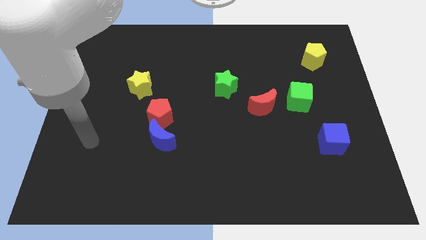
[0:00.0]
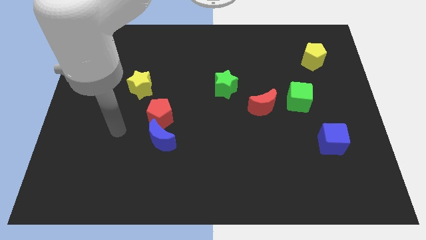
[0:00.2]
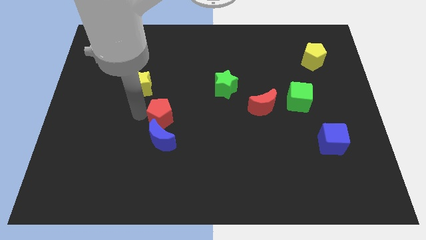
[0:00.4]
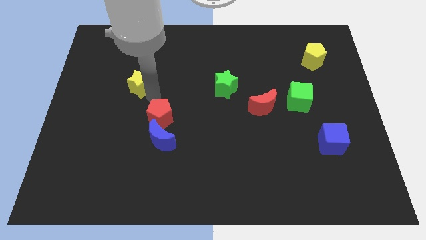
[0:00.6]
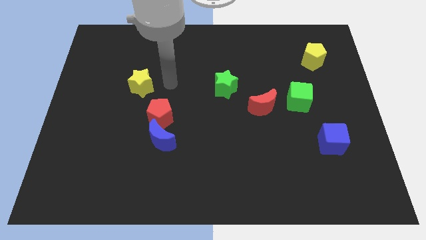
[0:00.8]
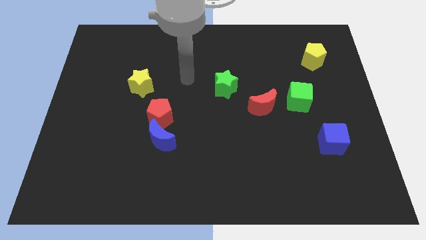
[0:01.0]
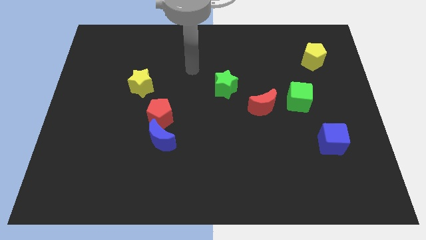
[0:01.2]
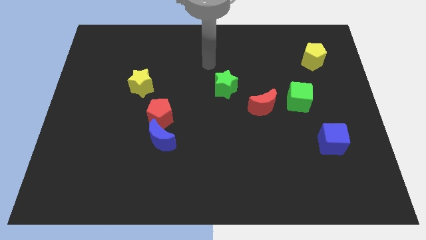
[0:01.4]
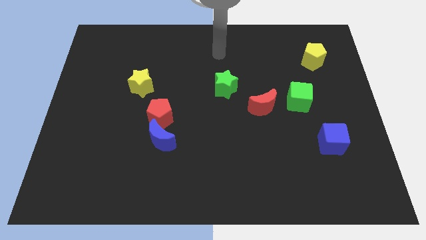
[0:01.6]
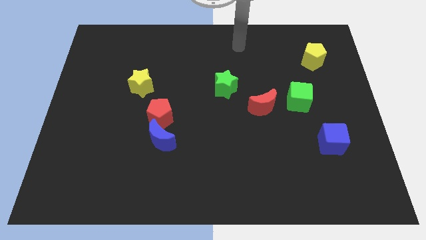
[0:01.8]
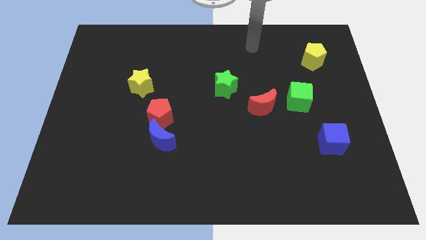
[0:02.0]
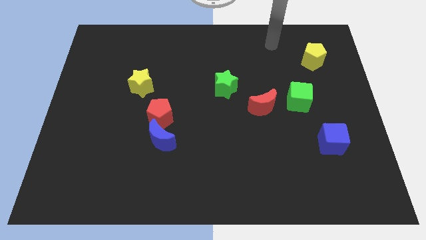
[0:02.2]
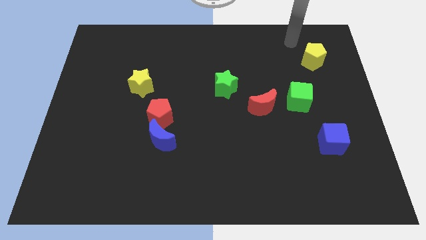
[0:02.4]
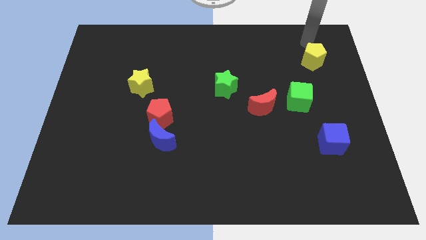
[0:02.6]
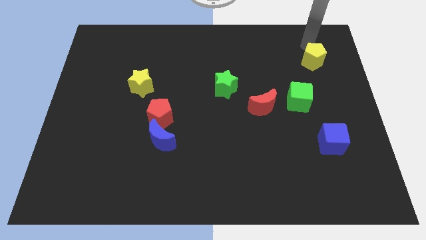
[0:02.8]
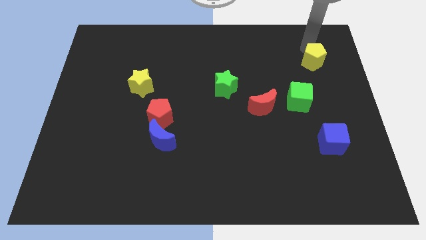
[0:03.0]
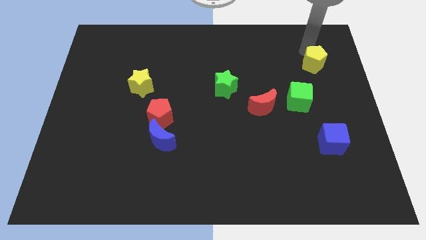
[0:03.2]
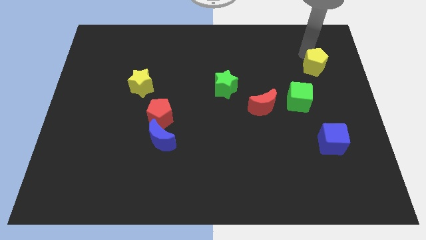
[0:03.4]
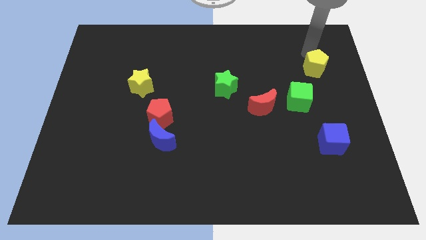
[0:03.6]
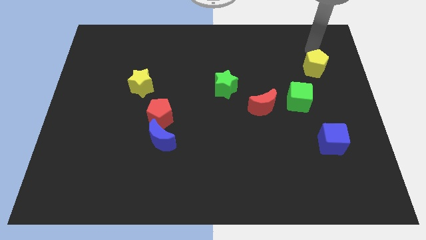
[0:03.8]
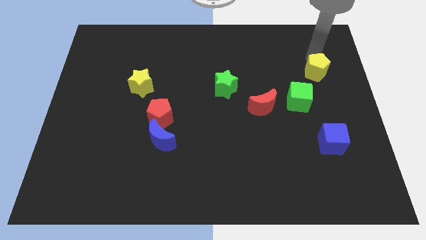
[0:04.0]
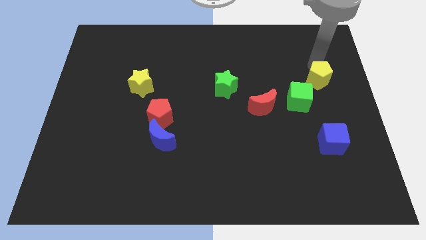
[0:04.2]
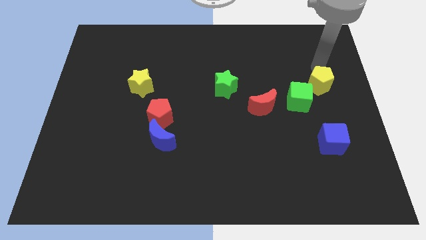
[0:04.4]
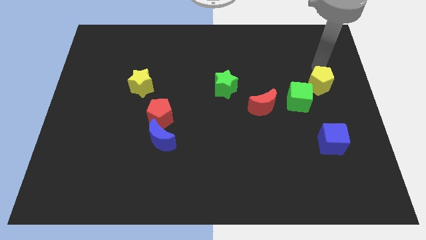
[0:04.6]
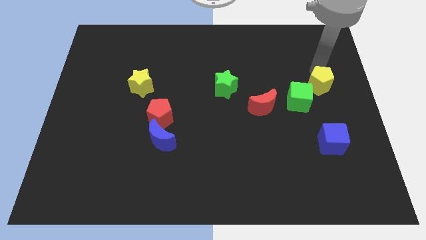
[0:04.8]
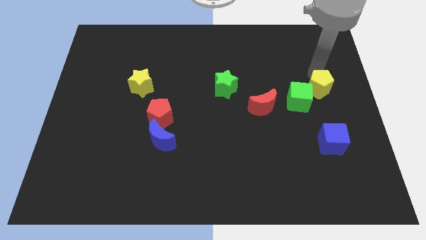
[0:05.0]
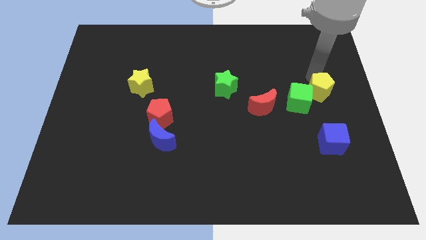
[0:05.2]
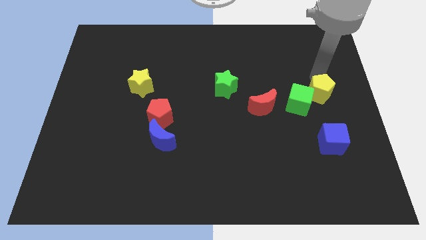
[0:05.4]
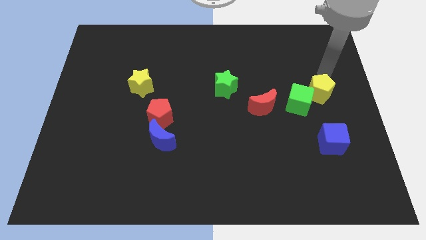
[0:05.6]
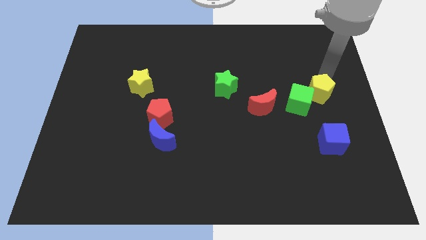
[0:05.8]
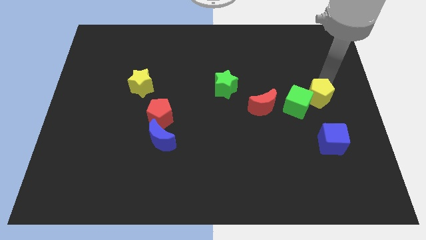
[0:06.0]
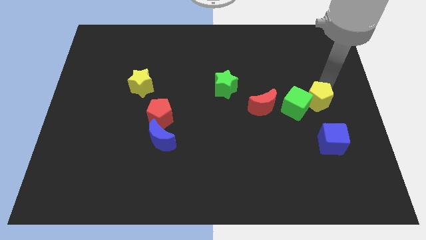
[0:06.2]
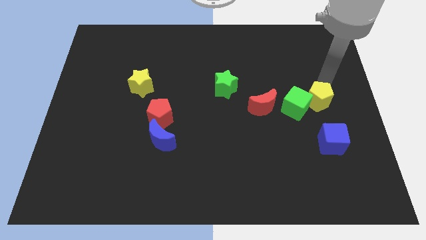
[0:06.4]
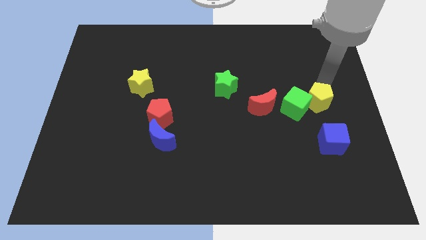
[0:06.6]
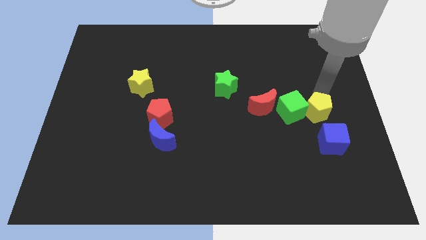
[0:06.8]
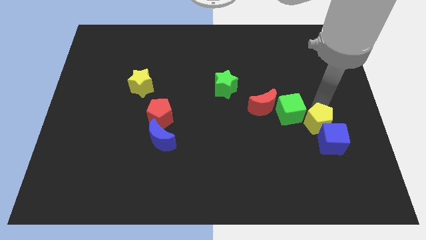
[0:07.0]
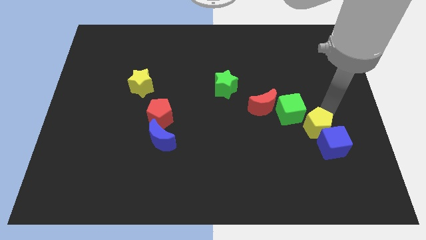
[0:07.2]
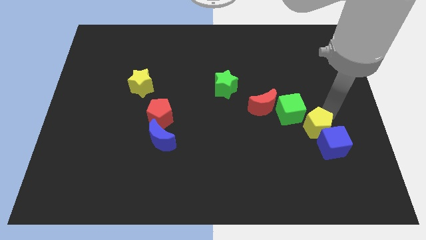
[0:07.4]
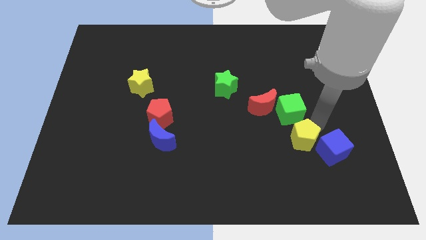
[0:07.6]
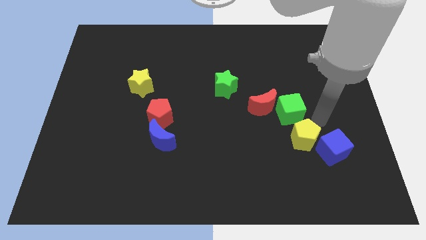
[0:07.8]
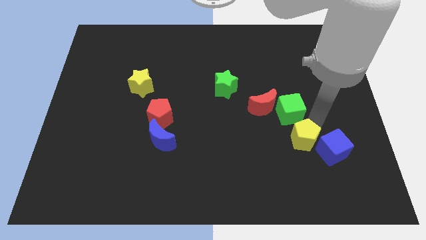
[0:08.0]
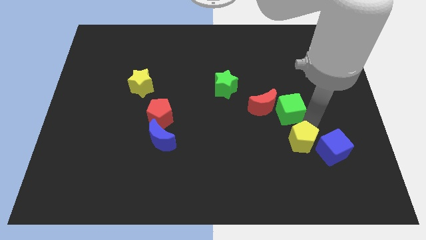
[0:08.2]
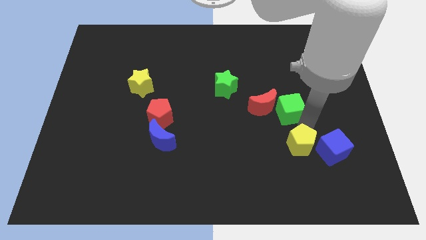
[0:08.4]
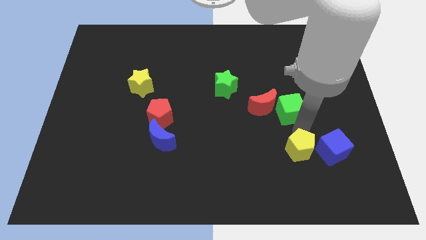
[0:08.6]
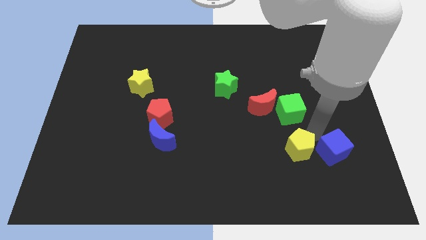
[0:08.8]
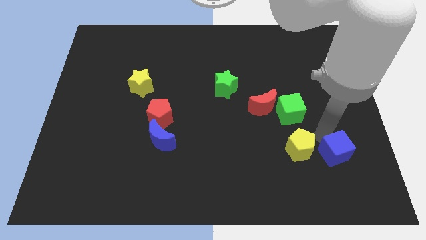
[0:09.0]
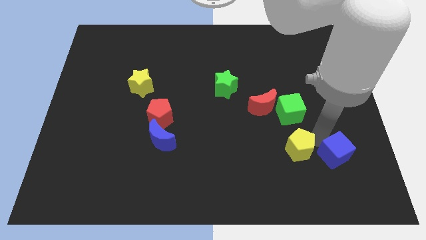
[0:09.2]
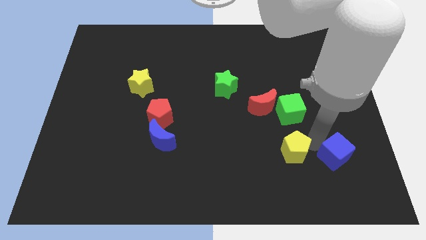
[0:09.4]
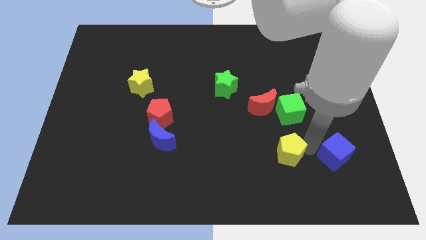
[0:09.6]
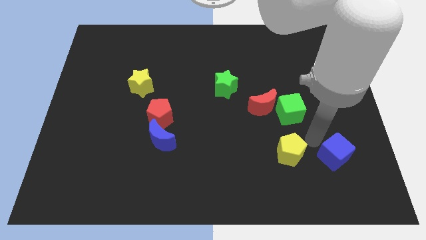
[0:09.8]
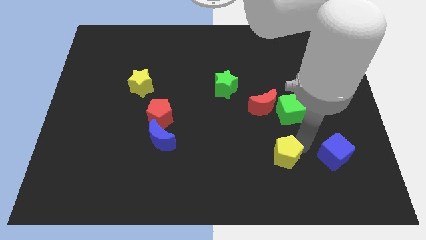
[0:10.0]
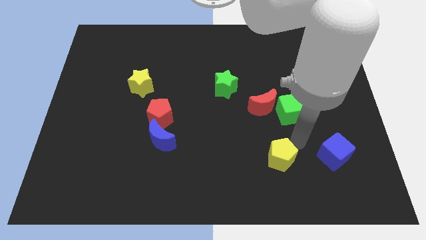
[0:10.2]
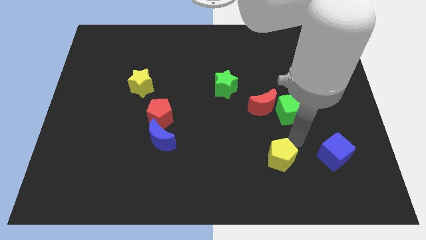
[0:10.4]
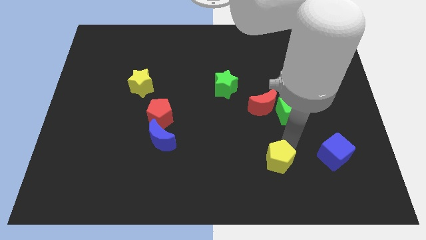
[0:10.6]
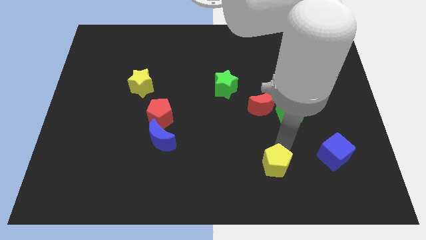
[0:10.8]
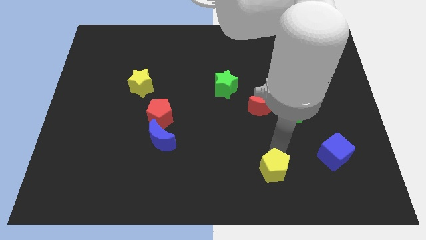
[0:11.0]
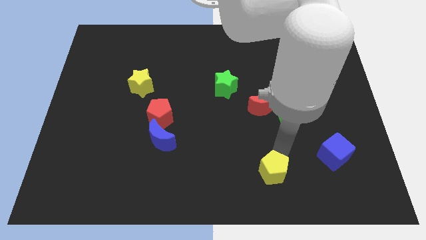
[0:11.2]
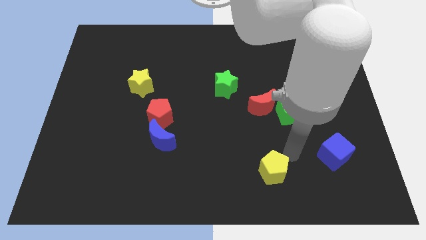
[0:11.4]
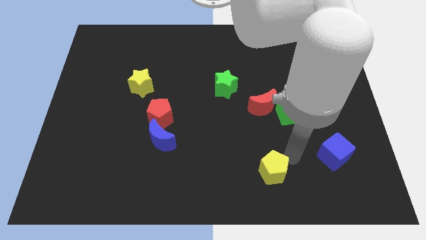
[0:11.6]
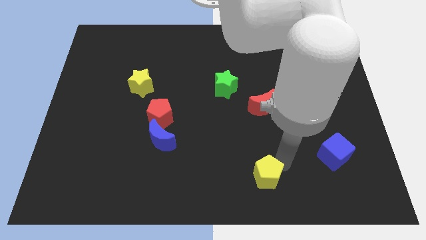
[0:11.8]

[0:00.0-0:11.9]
slide the yellow pentagon to the bottom side
